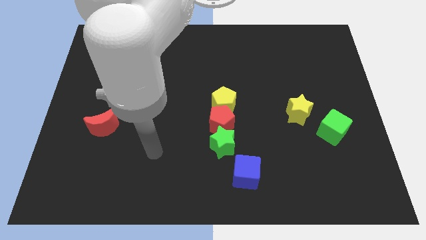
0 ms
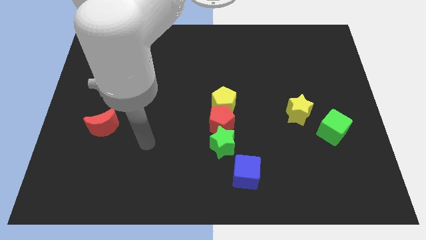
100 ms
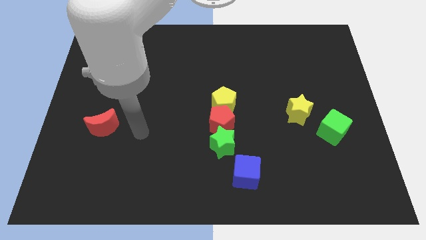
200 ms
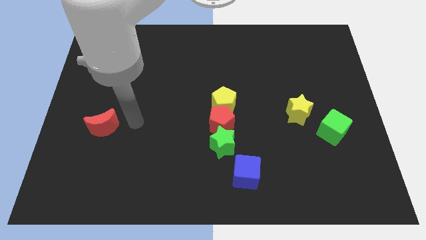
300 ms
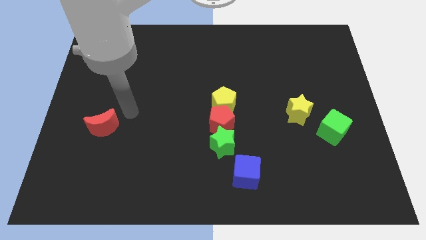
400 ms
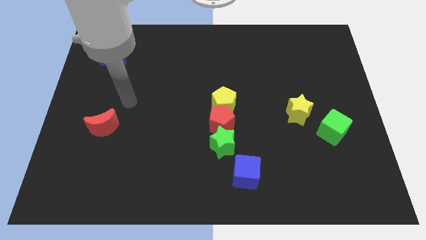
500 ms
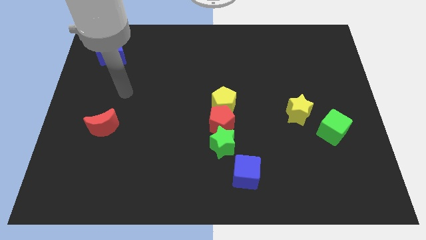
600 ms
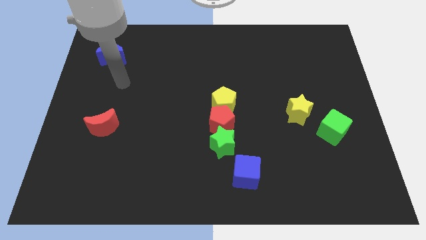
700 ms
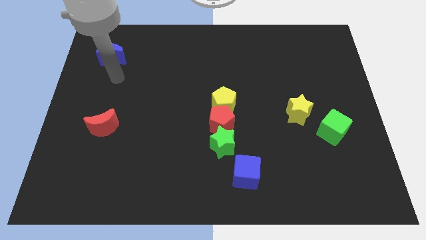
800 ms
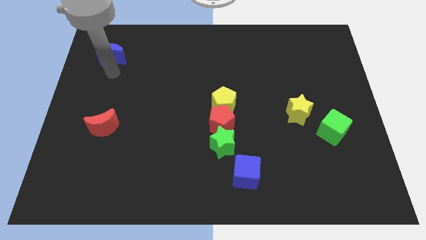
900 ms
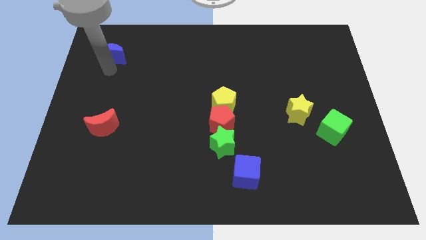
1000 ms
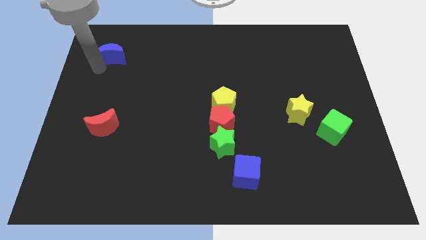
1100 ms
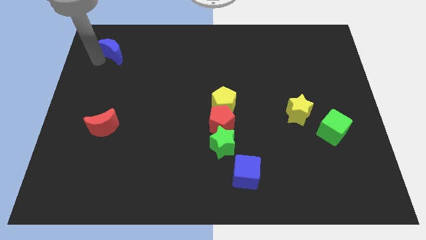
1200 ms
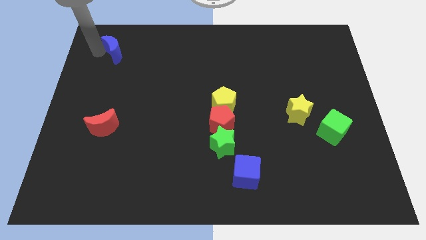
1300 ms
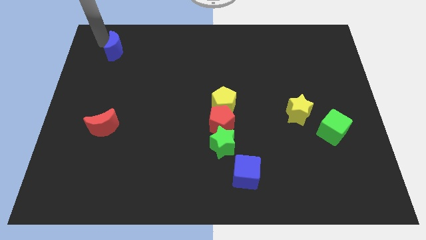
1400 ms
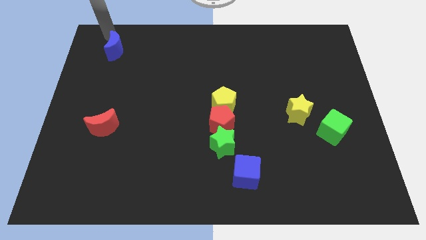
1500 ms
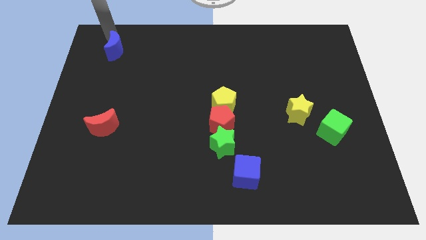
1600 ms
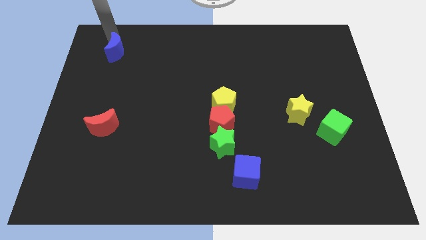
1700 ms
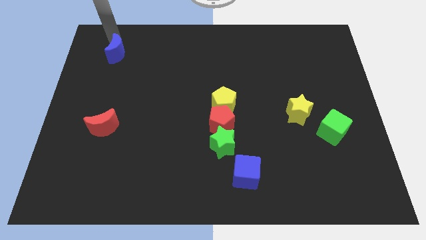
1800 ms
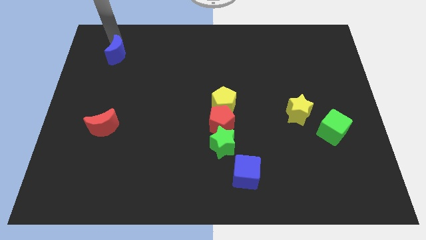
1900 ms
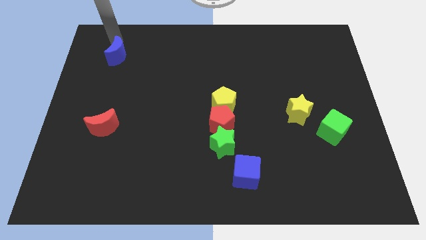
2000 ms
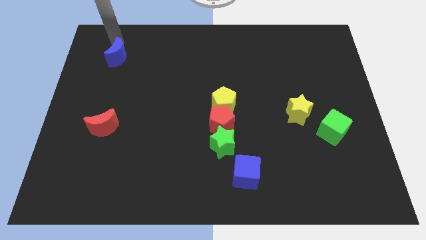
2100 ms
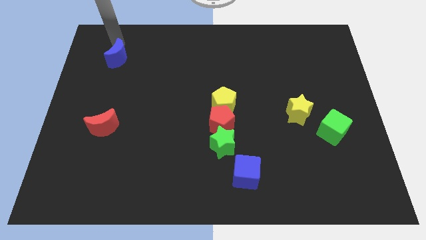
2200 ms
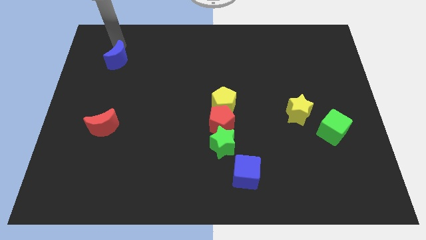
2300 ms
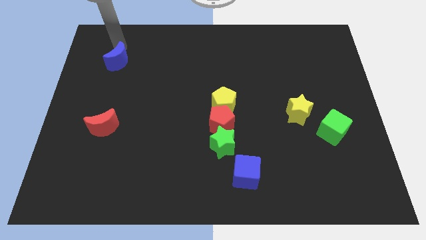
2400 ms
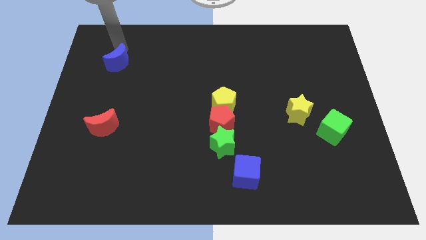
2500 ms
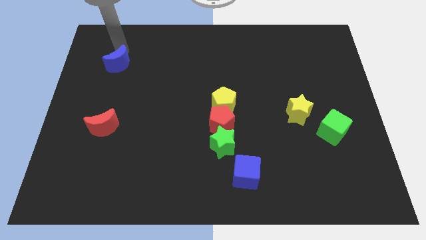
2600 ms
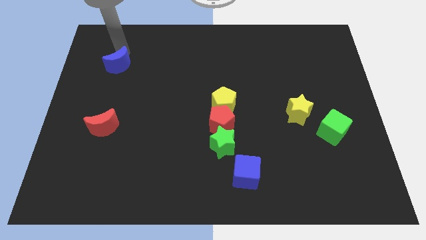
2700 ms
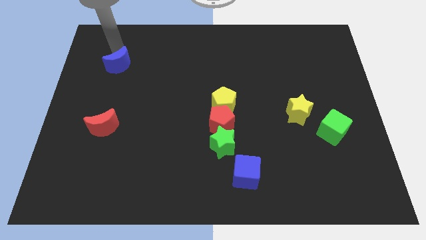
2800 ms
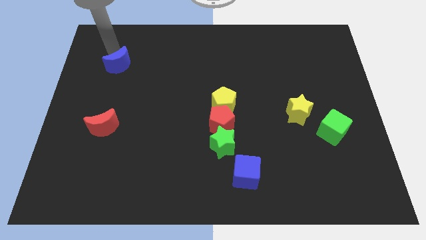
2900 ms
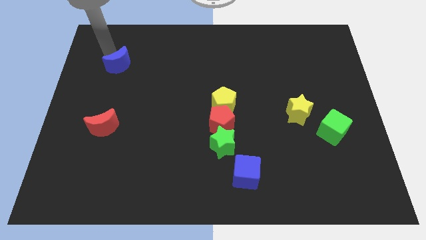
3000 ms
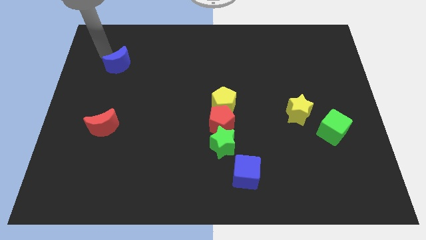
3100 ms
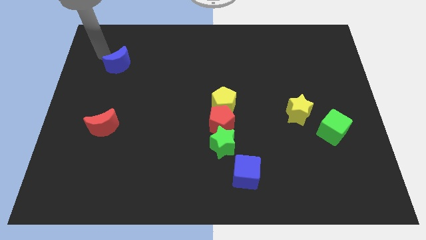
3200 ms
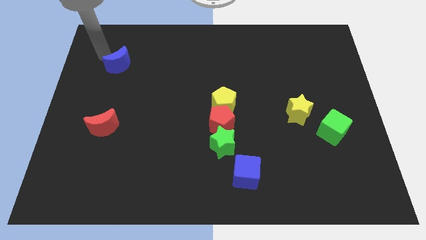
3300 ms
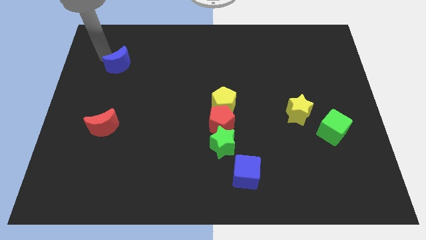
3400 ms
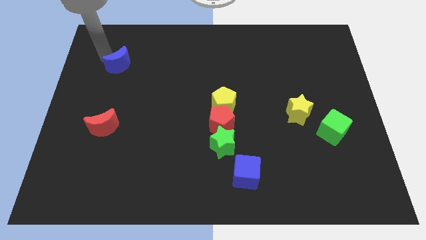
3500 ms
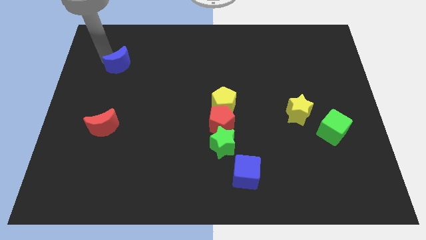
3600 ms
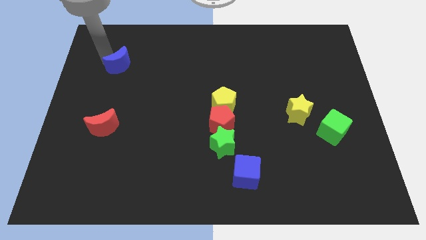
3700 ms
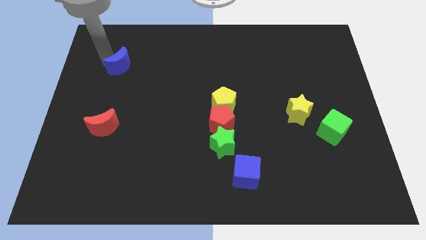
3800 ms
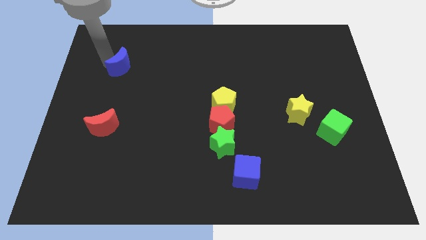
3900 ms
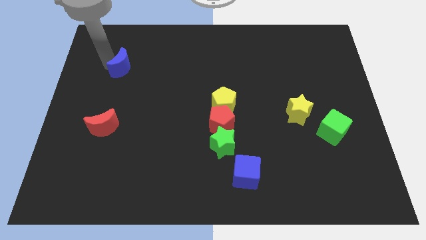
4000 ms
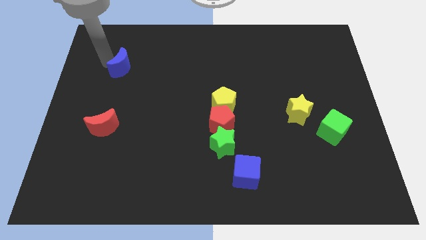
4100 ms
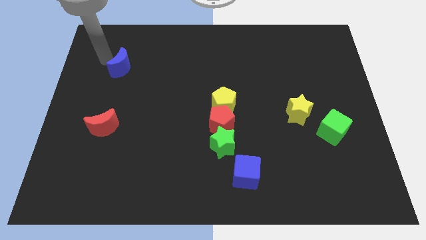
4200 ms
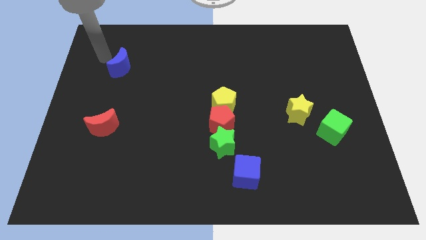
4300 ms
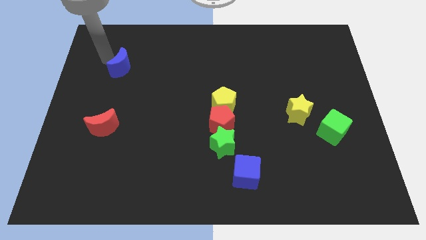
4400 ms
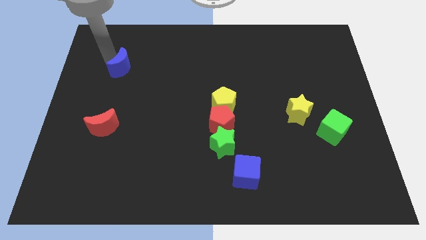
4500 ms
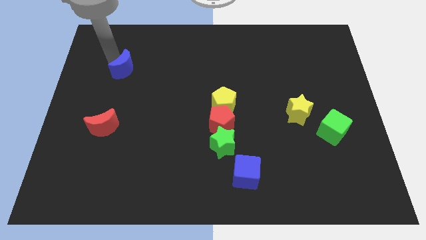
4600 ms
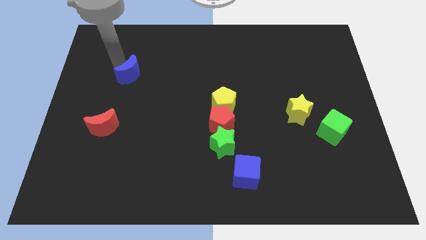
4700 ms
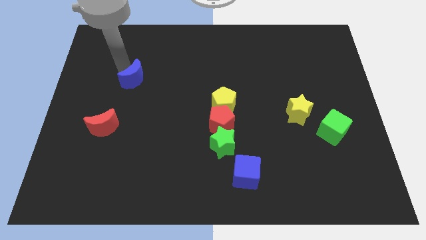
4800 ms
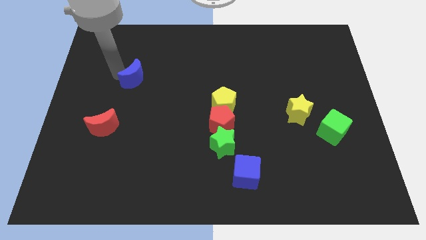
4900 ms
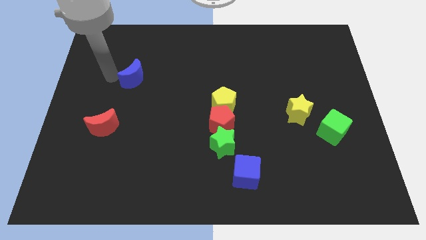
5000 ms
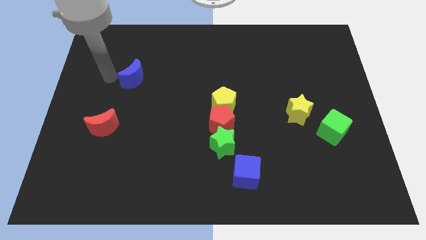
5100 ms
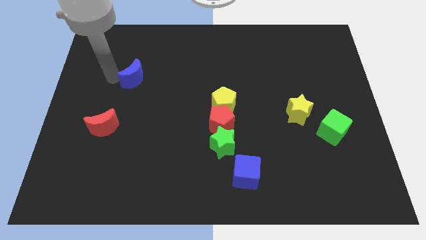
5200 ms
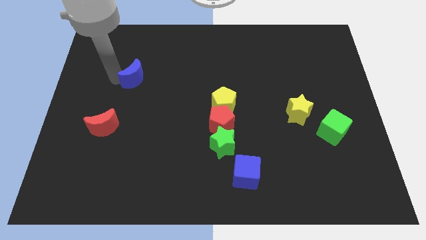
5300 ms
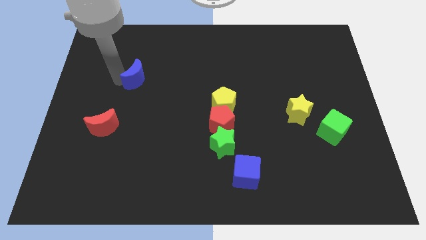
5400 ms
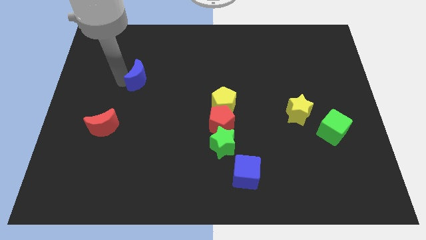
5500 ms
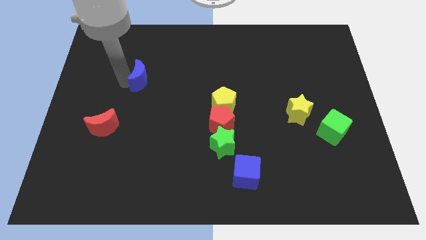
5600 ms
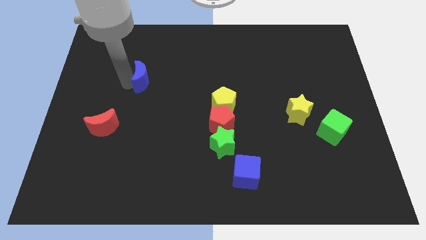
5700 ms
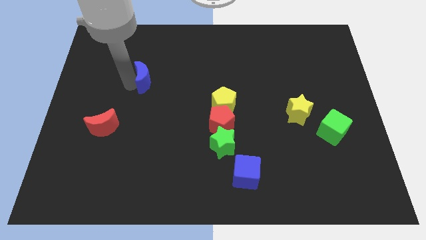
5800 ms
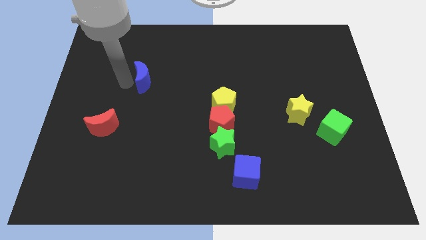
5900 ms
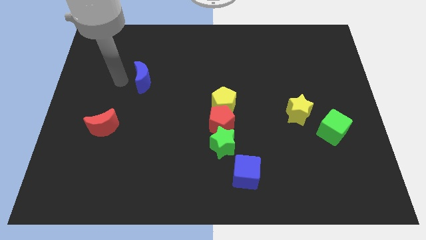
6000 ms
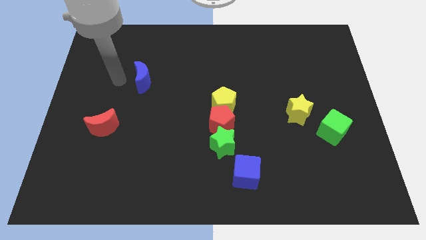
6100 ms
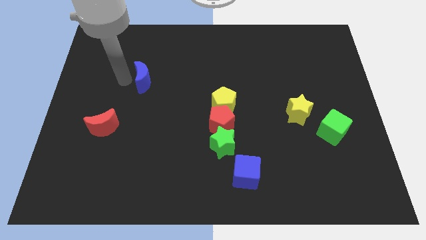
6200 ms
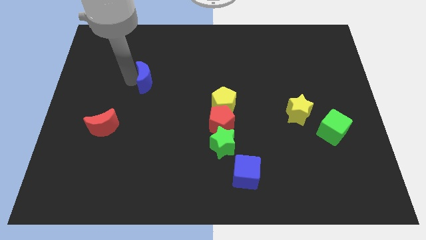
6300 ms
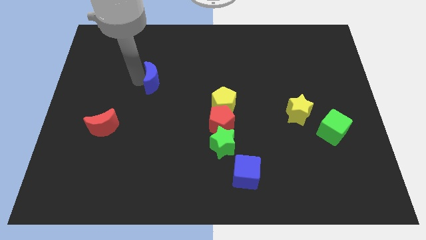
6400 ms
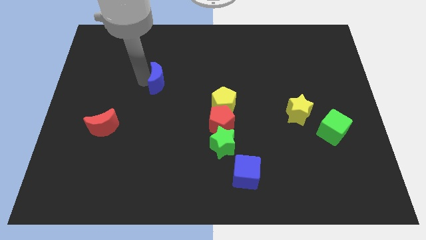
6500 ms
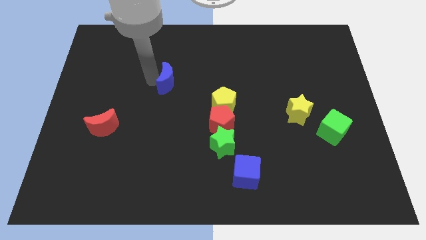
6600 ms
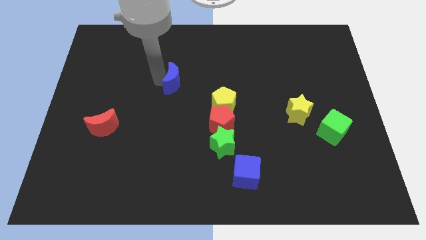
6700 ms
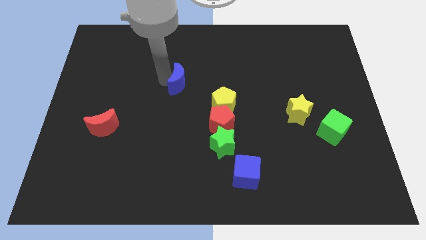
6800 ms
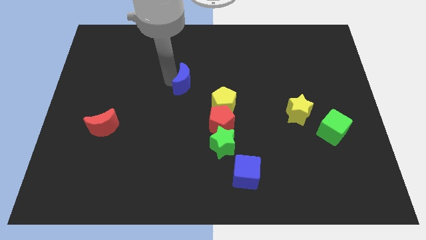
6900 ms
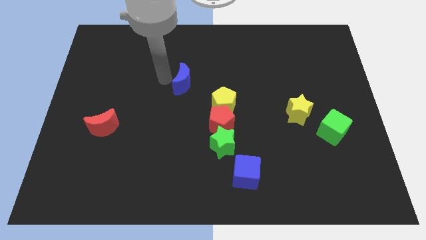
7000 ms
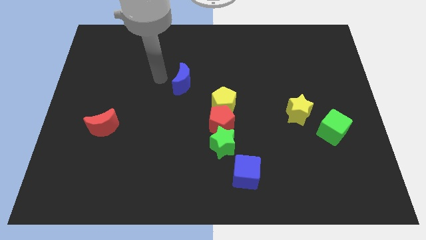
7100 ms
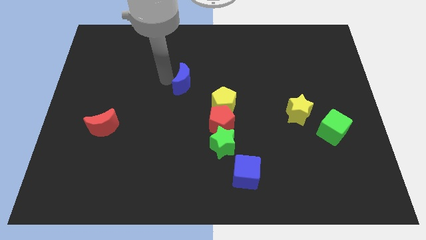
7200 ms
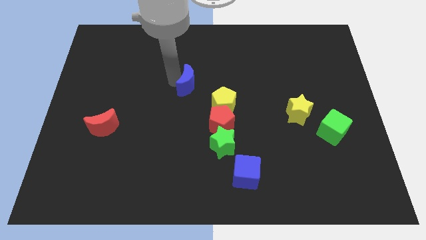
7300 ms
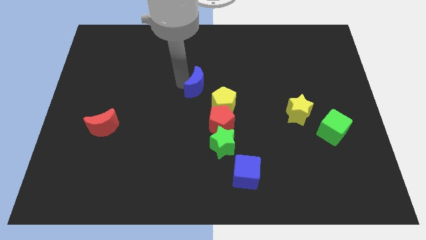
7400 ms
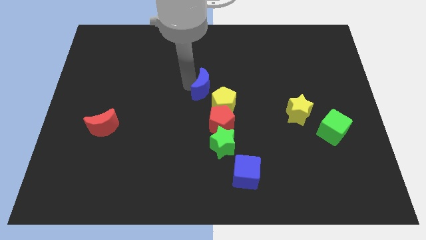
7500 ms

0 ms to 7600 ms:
put the blue moon to the top side of the red pentagon

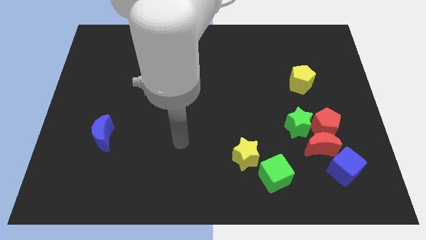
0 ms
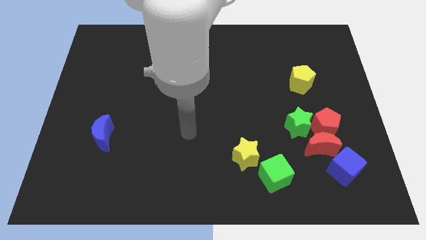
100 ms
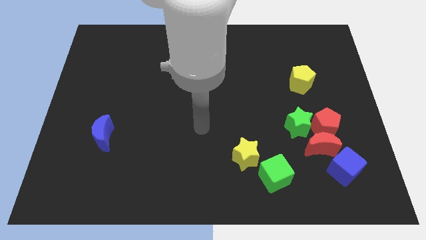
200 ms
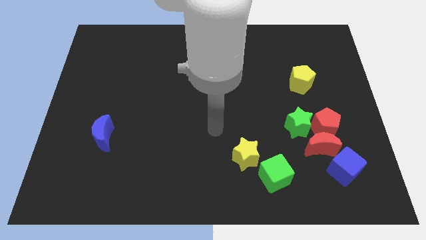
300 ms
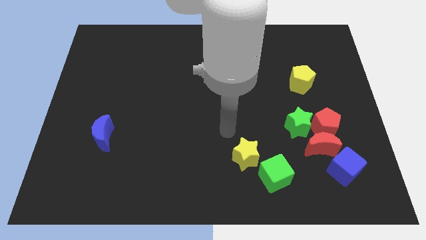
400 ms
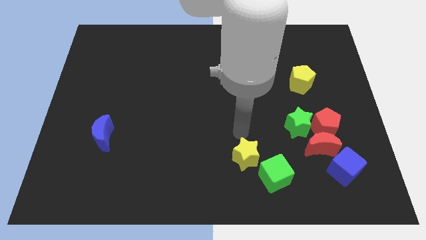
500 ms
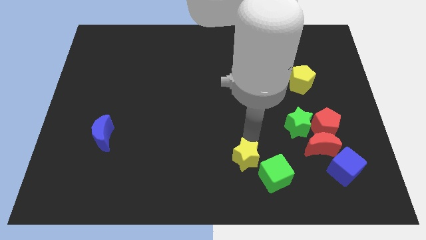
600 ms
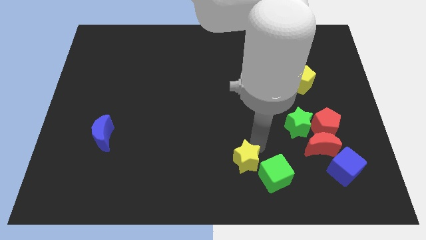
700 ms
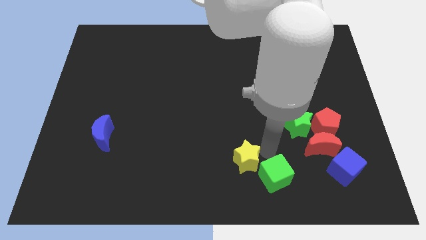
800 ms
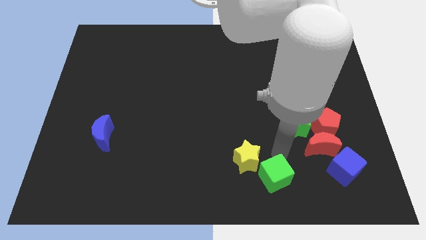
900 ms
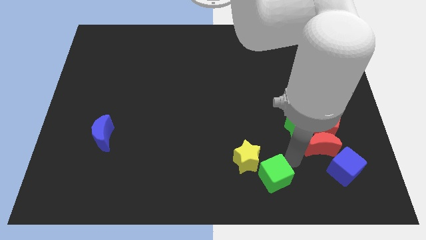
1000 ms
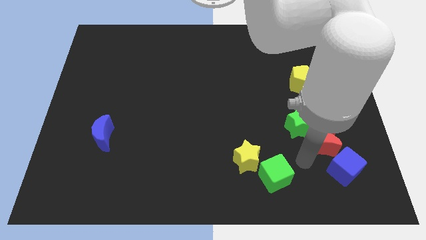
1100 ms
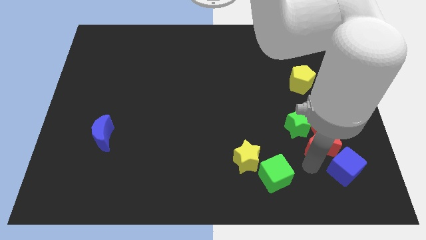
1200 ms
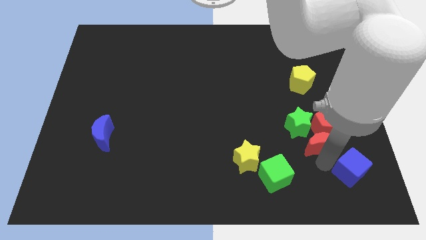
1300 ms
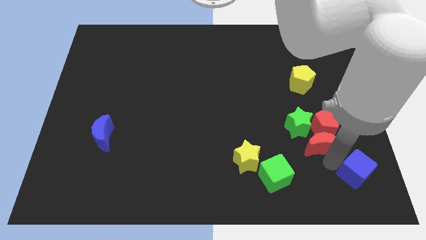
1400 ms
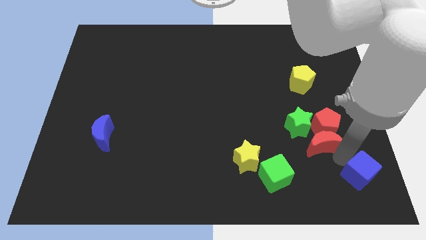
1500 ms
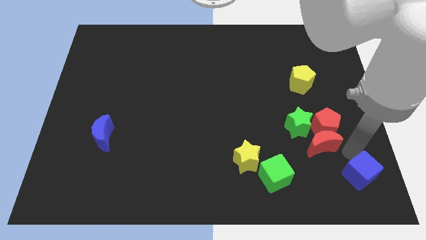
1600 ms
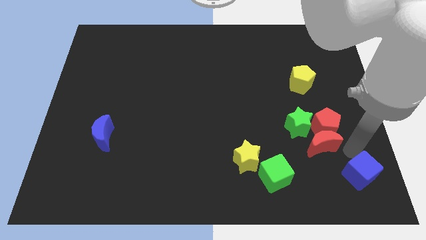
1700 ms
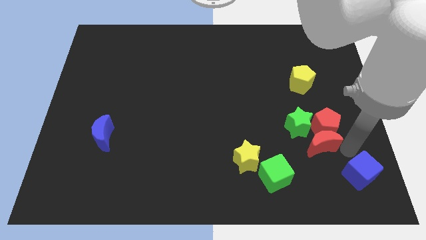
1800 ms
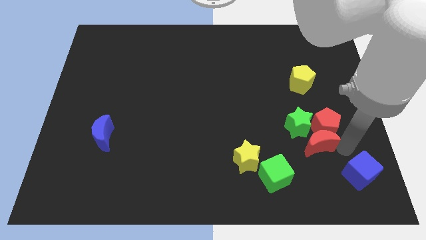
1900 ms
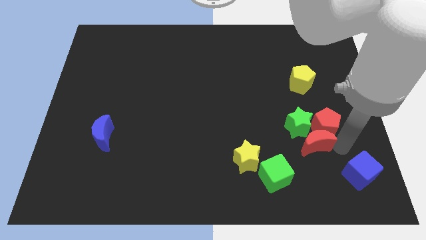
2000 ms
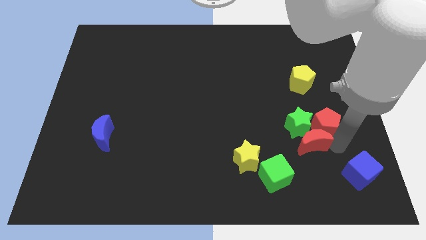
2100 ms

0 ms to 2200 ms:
push the red moon to the left side of the red pentagon
